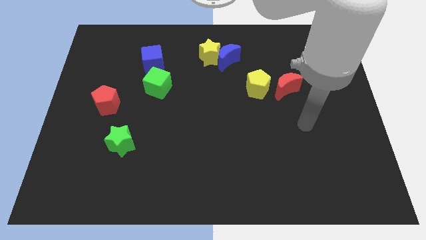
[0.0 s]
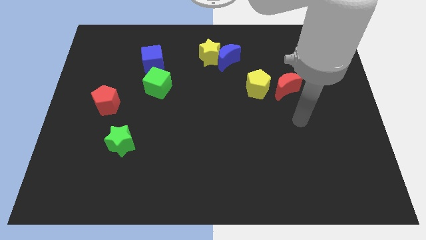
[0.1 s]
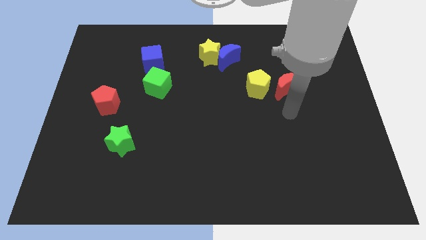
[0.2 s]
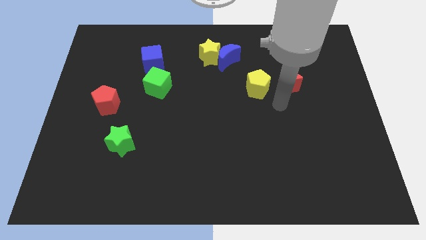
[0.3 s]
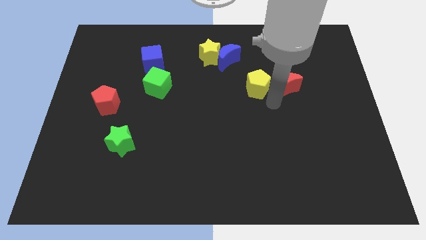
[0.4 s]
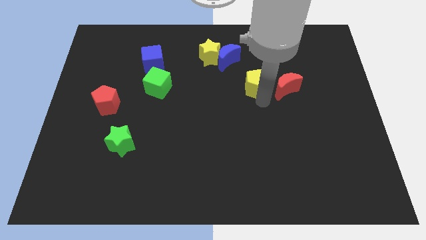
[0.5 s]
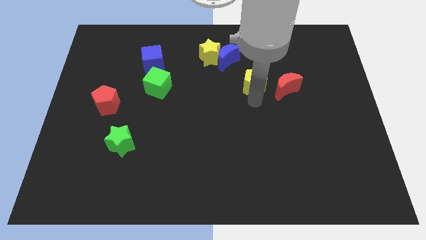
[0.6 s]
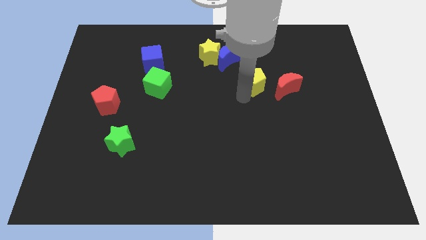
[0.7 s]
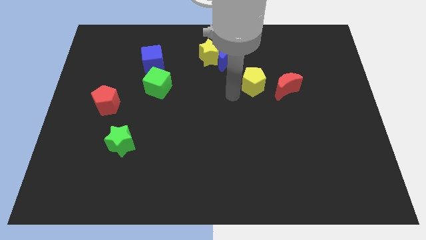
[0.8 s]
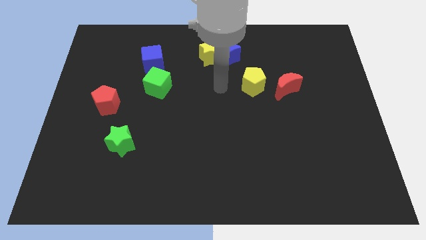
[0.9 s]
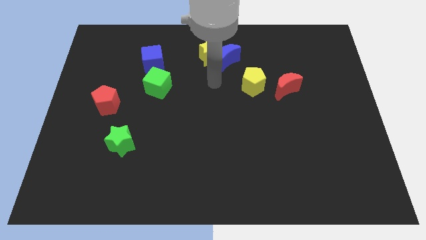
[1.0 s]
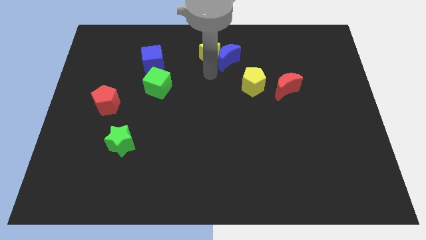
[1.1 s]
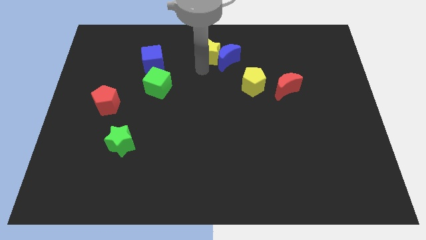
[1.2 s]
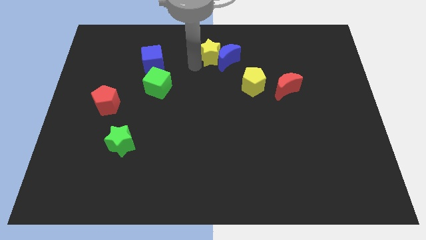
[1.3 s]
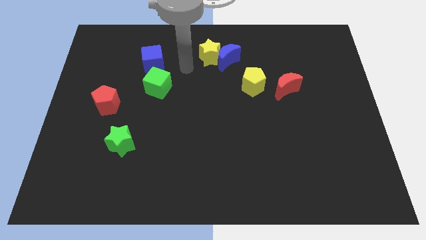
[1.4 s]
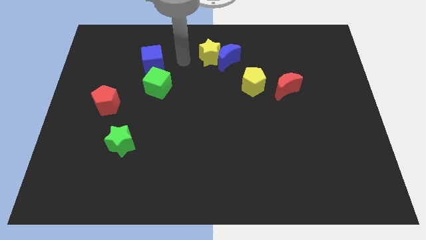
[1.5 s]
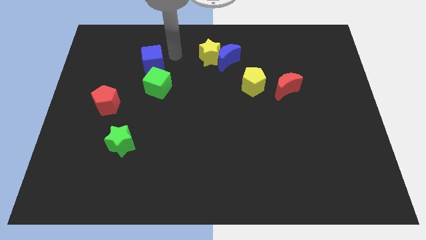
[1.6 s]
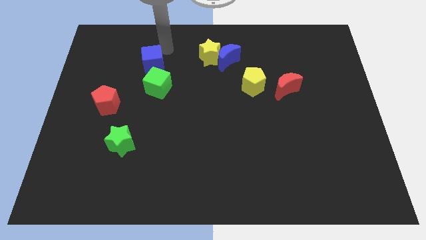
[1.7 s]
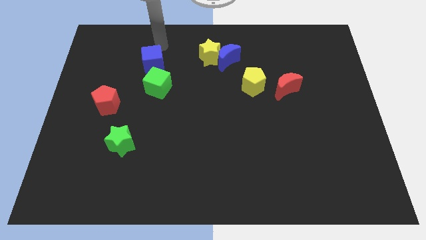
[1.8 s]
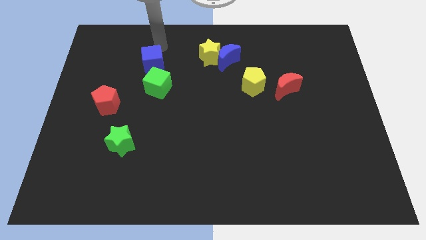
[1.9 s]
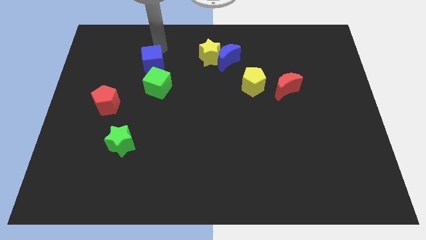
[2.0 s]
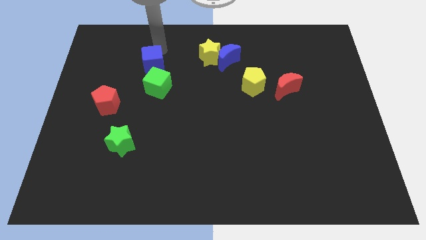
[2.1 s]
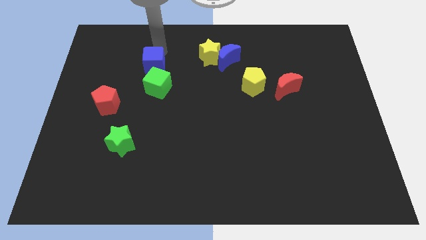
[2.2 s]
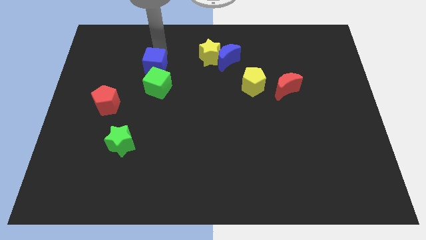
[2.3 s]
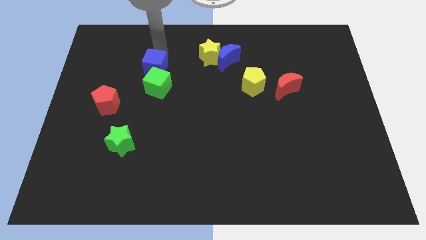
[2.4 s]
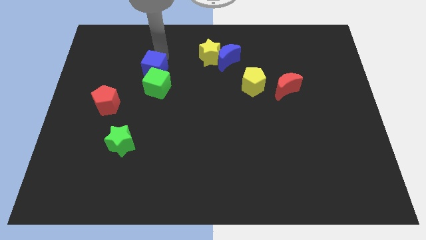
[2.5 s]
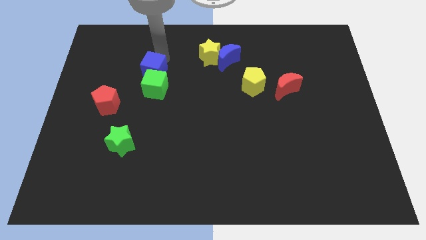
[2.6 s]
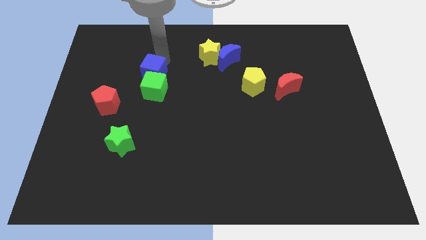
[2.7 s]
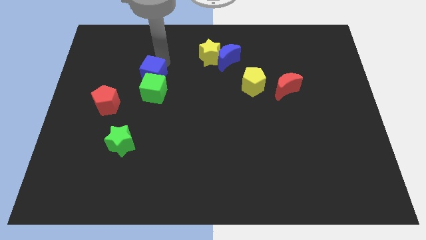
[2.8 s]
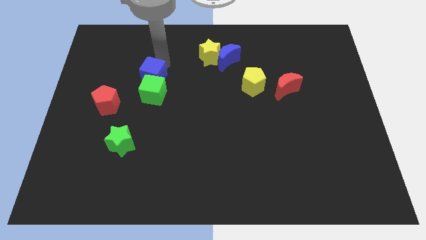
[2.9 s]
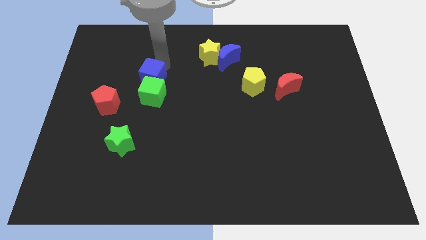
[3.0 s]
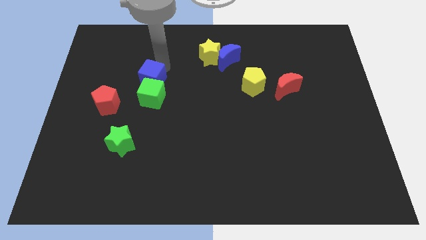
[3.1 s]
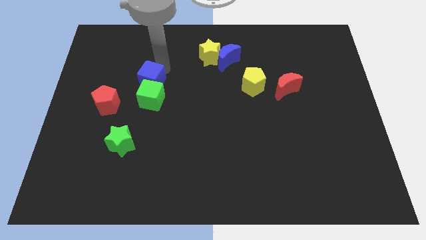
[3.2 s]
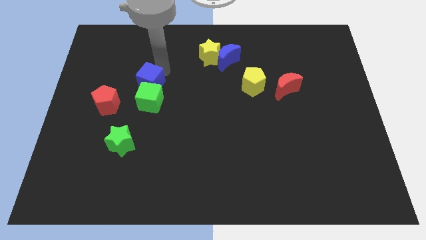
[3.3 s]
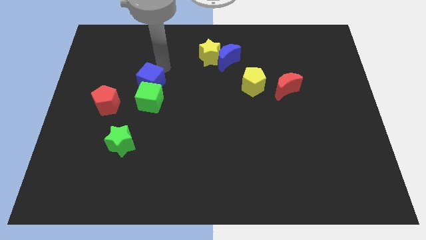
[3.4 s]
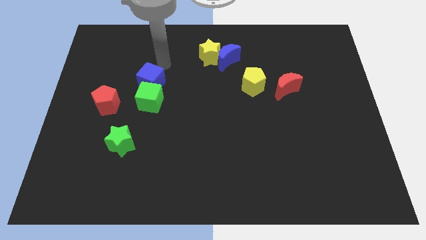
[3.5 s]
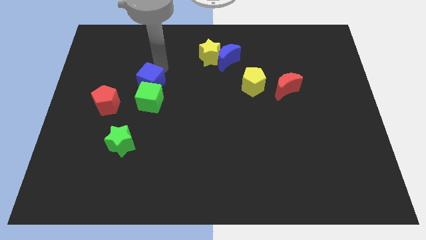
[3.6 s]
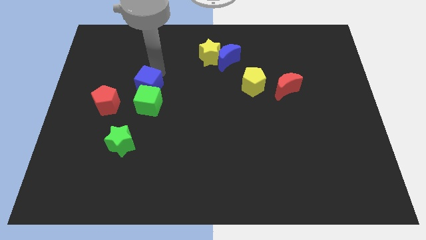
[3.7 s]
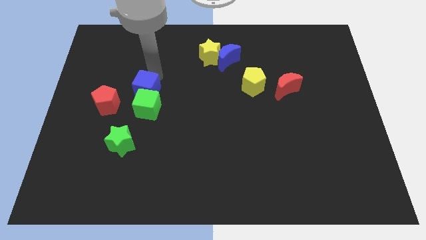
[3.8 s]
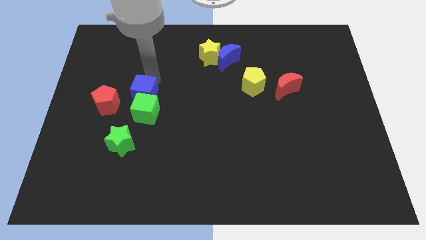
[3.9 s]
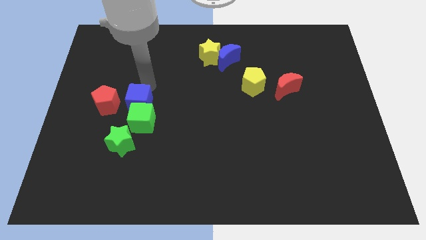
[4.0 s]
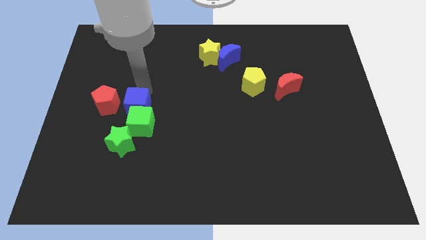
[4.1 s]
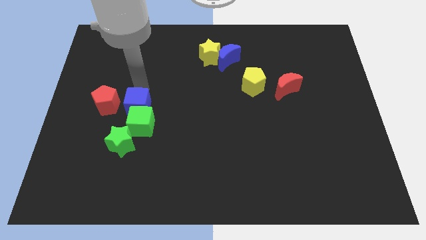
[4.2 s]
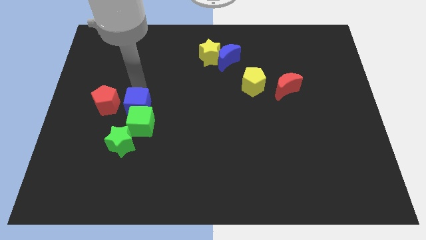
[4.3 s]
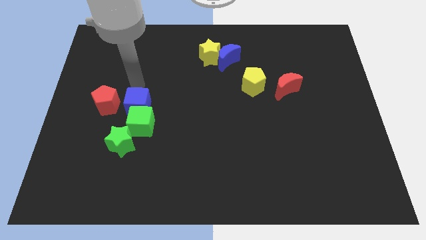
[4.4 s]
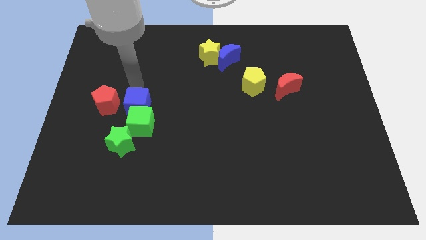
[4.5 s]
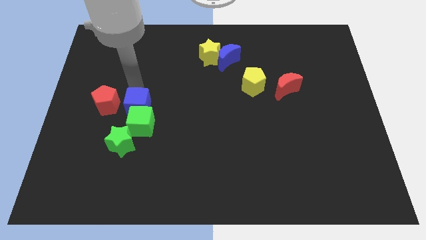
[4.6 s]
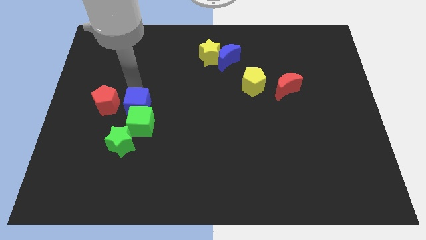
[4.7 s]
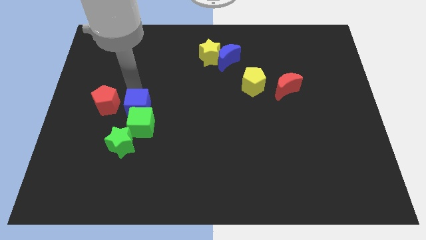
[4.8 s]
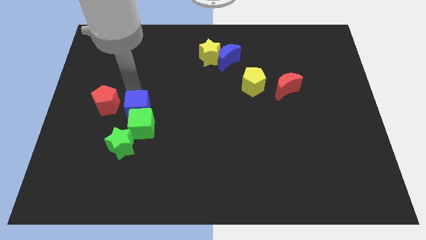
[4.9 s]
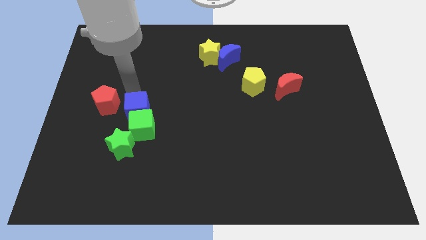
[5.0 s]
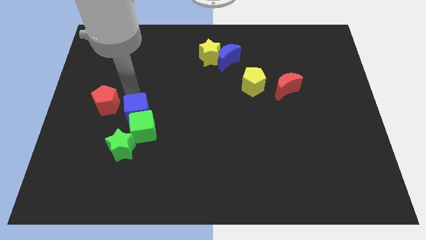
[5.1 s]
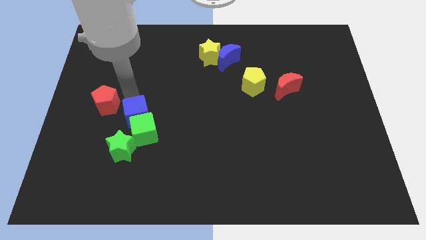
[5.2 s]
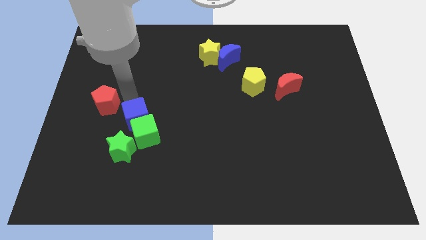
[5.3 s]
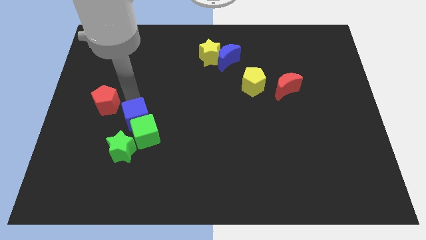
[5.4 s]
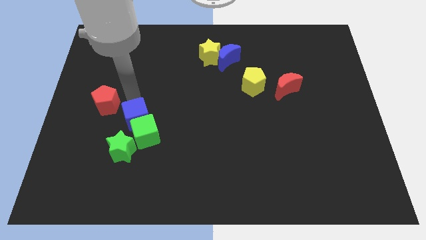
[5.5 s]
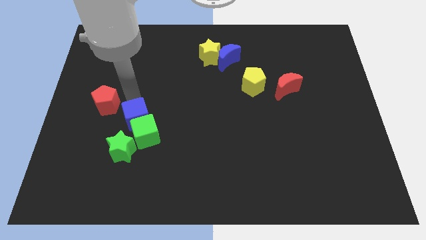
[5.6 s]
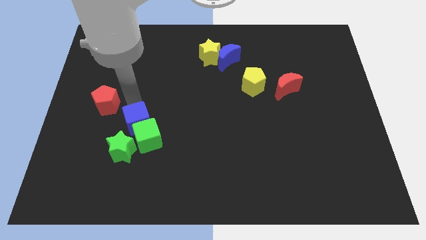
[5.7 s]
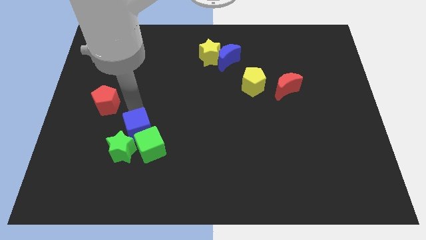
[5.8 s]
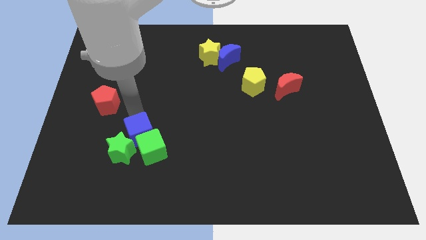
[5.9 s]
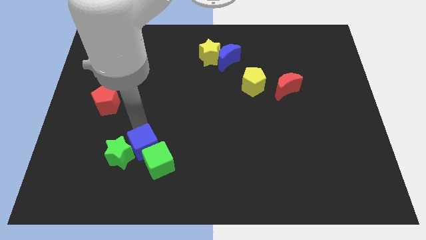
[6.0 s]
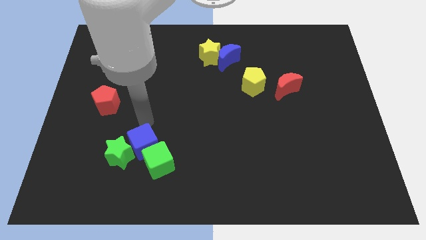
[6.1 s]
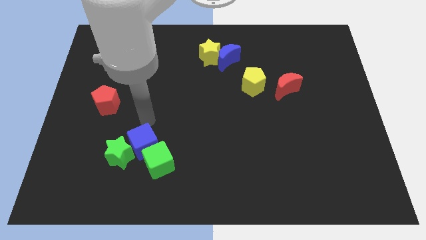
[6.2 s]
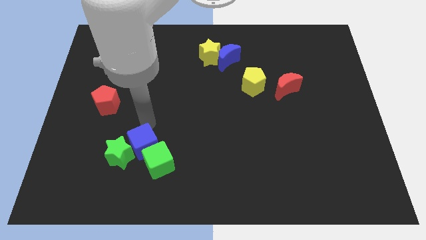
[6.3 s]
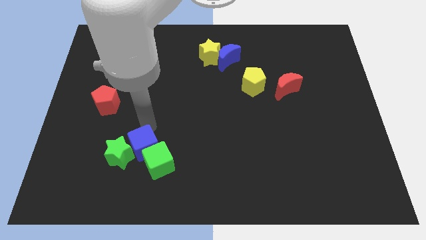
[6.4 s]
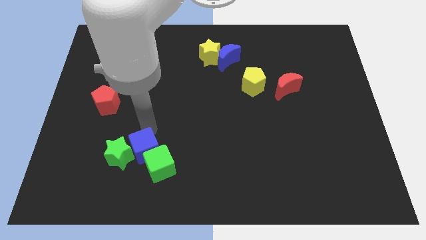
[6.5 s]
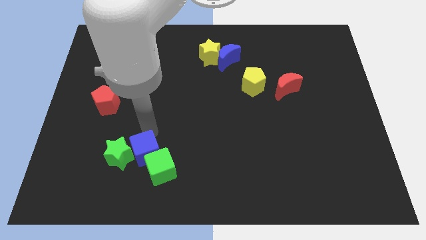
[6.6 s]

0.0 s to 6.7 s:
slide the blue cube to the bottom right of the green star
